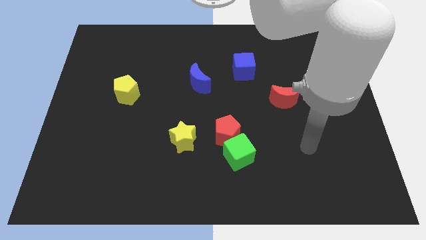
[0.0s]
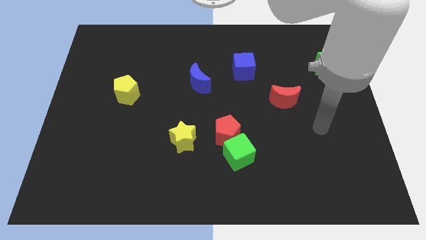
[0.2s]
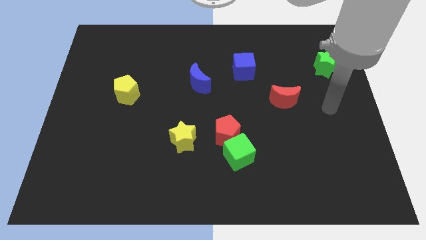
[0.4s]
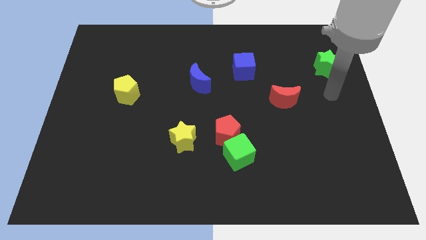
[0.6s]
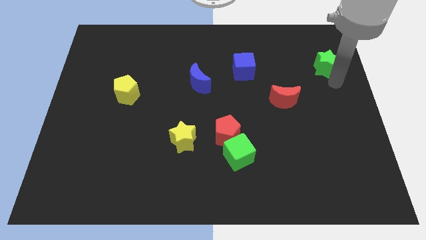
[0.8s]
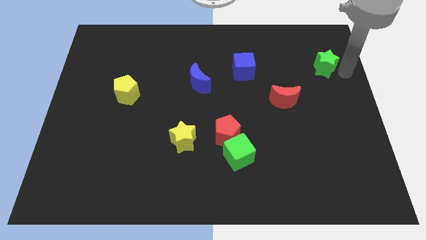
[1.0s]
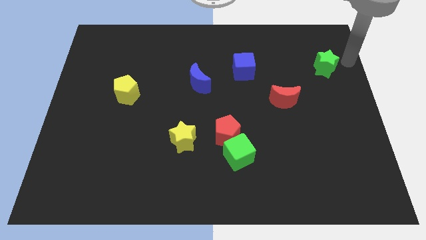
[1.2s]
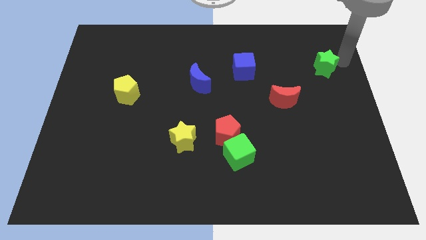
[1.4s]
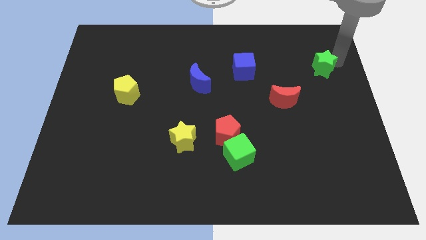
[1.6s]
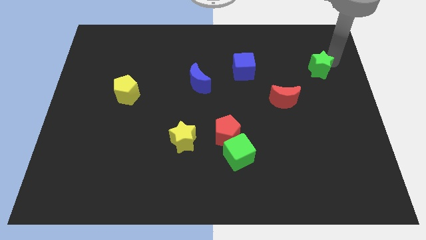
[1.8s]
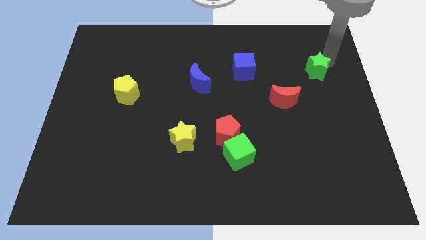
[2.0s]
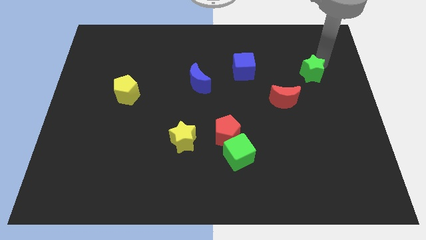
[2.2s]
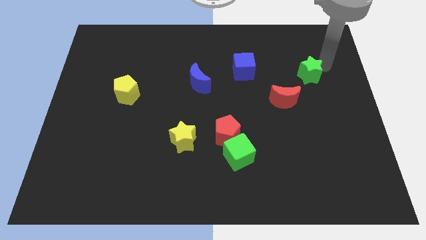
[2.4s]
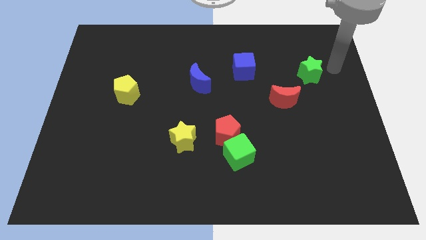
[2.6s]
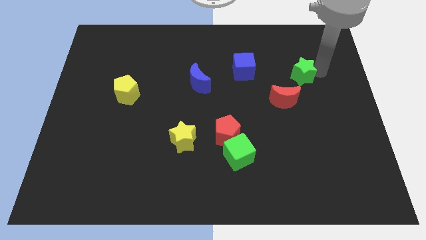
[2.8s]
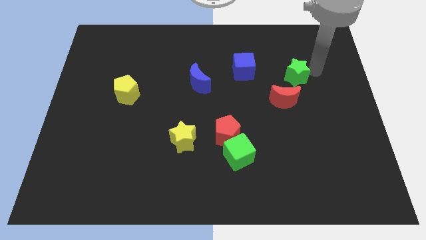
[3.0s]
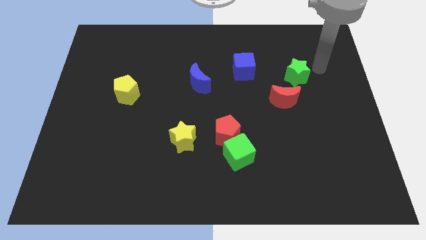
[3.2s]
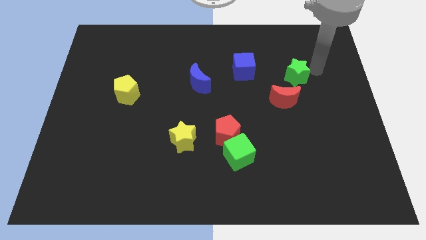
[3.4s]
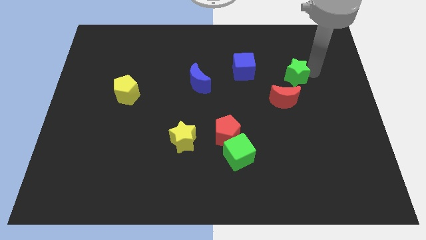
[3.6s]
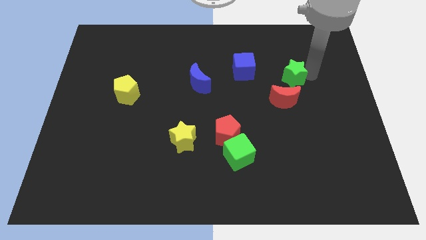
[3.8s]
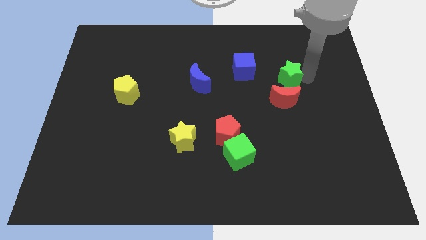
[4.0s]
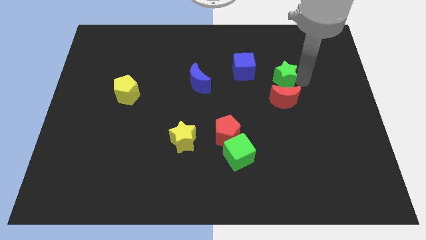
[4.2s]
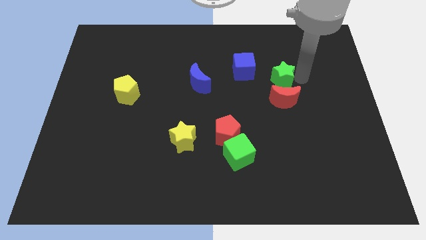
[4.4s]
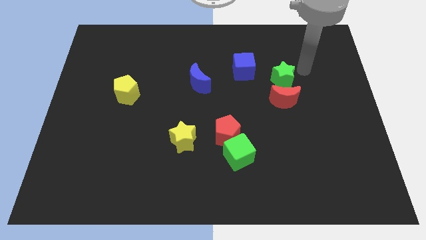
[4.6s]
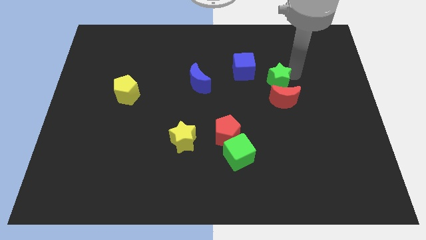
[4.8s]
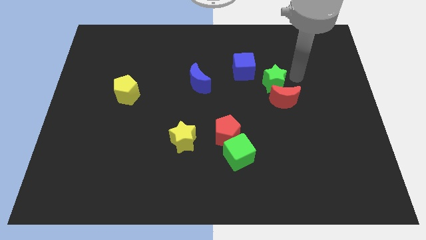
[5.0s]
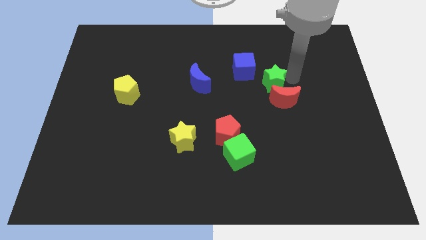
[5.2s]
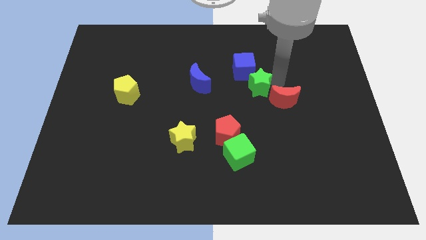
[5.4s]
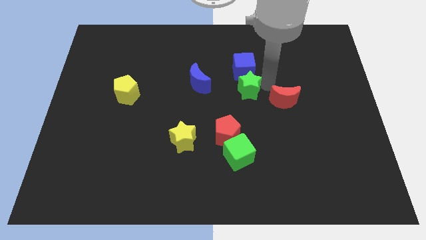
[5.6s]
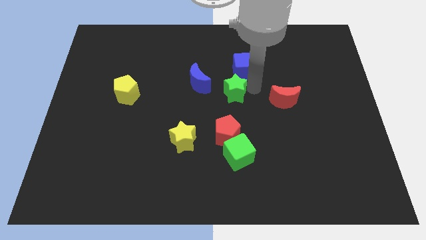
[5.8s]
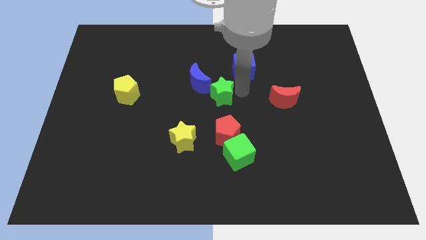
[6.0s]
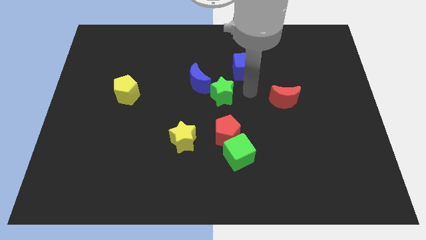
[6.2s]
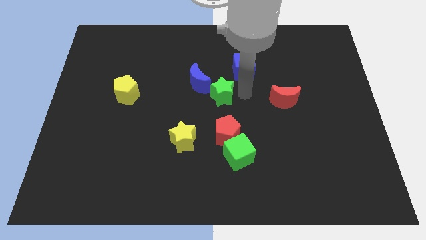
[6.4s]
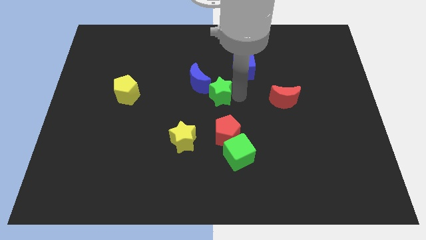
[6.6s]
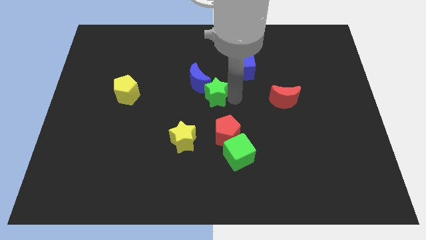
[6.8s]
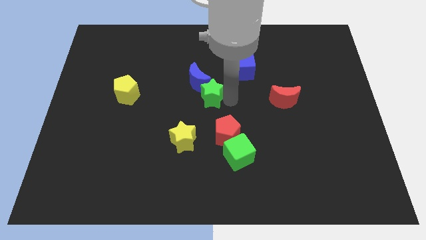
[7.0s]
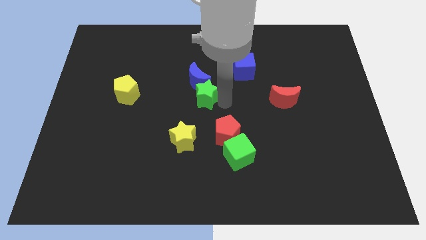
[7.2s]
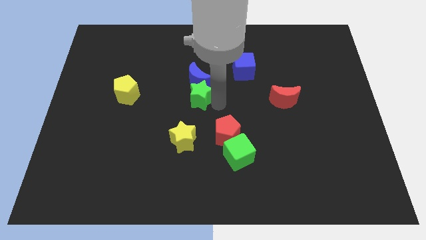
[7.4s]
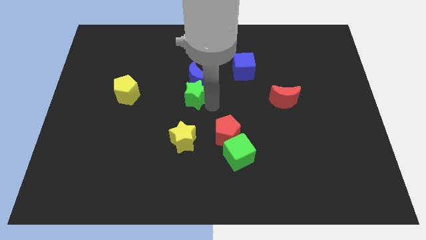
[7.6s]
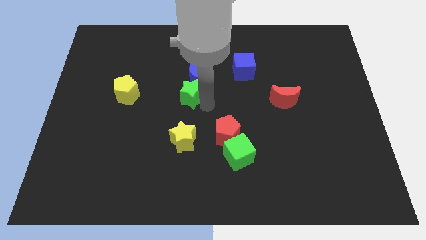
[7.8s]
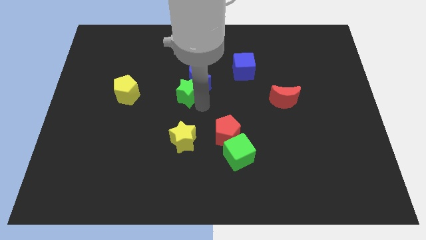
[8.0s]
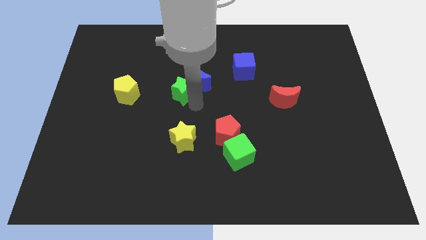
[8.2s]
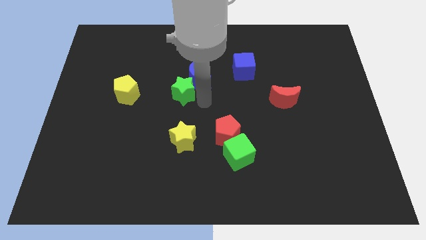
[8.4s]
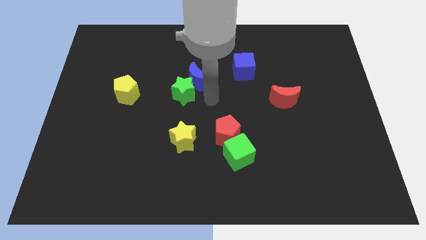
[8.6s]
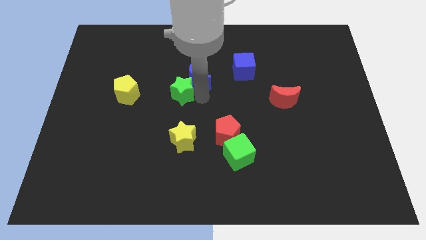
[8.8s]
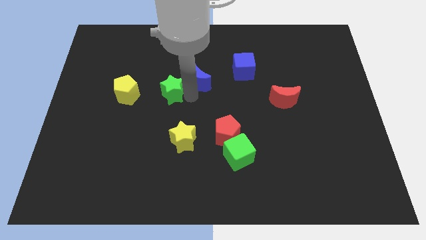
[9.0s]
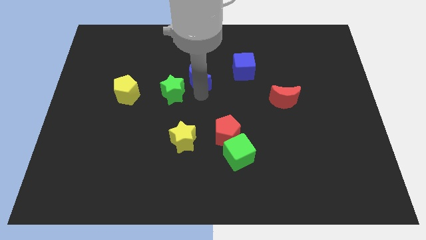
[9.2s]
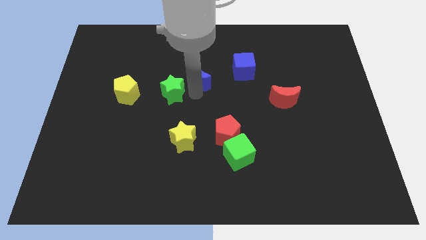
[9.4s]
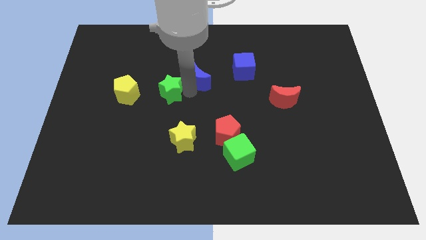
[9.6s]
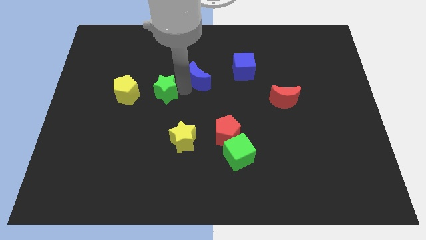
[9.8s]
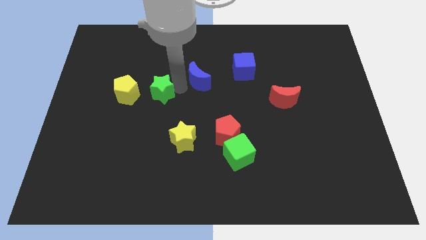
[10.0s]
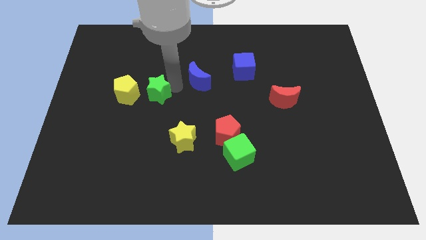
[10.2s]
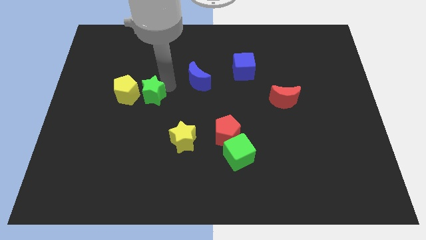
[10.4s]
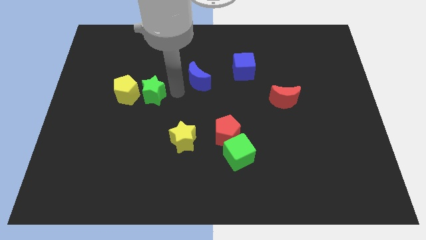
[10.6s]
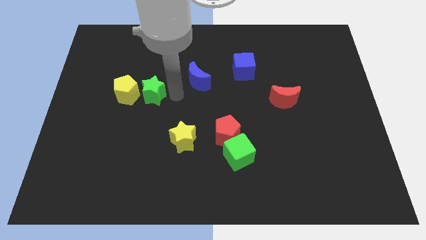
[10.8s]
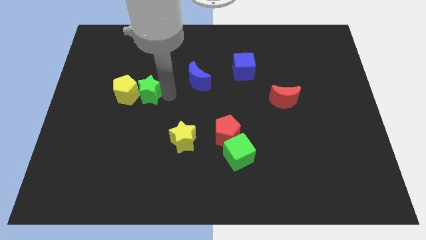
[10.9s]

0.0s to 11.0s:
slide the green star next to the yellow pentagon

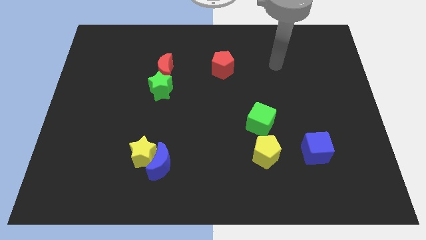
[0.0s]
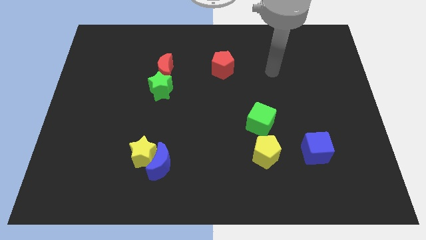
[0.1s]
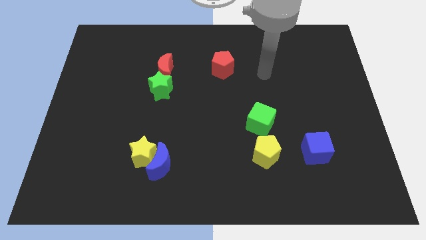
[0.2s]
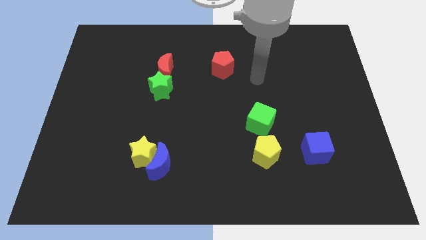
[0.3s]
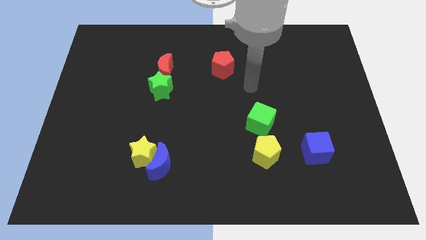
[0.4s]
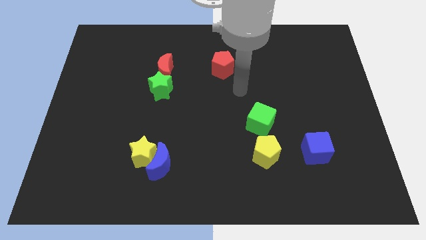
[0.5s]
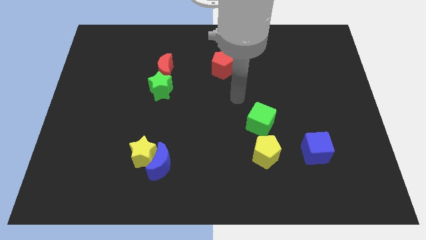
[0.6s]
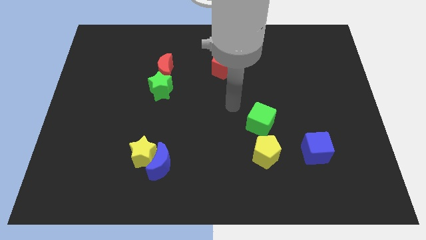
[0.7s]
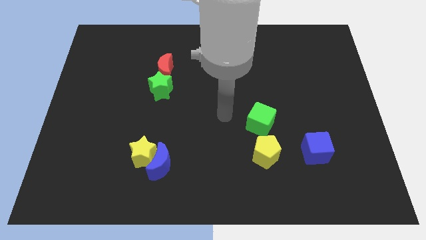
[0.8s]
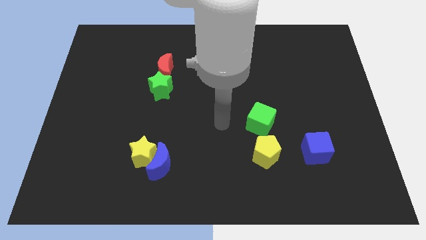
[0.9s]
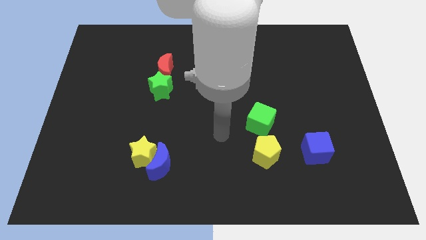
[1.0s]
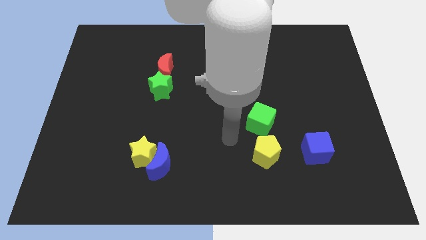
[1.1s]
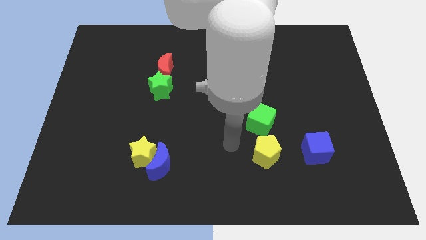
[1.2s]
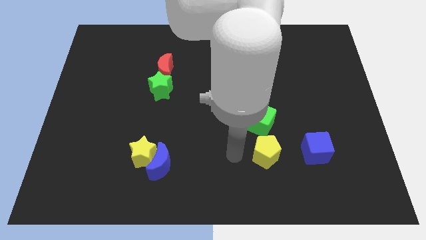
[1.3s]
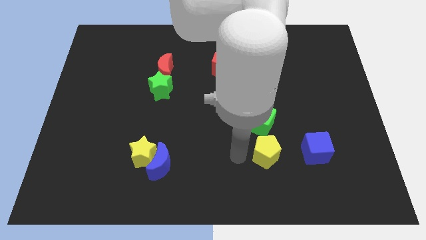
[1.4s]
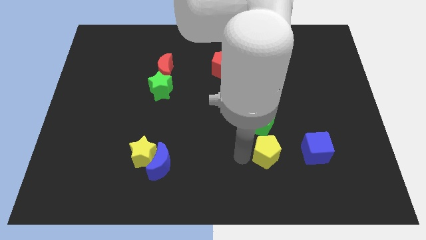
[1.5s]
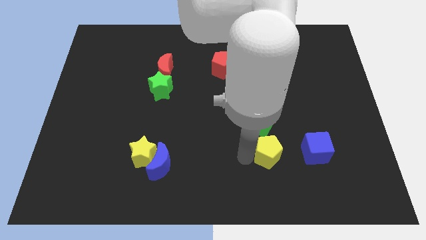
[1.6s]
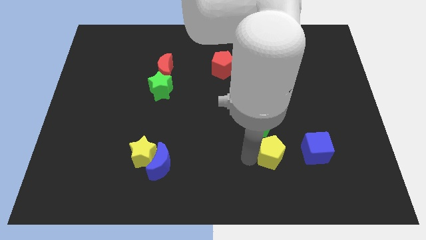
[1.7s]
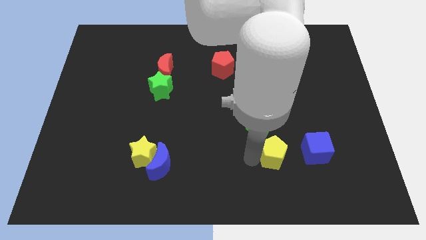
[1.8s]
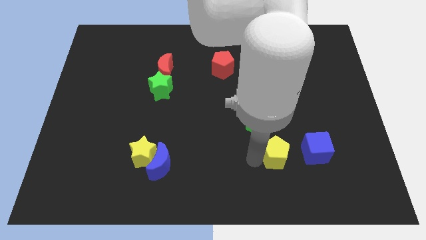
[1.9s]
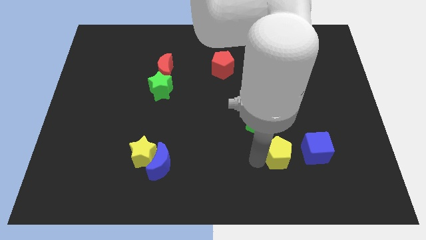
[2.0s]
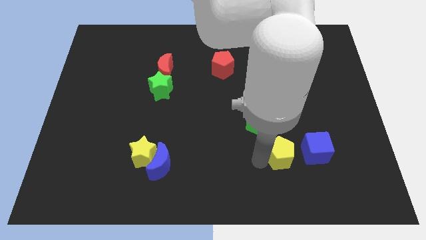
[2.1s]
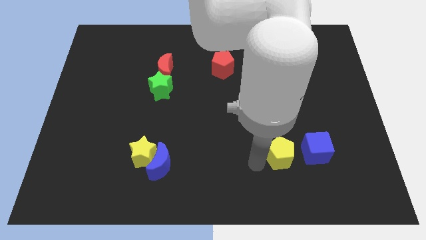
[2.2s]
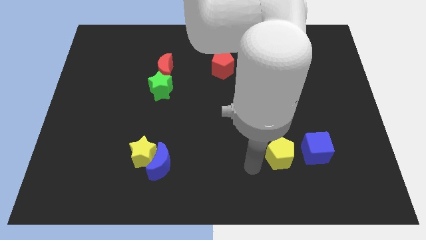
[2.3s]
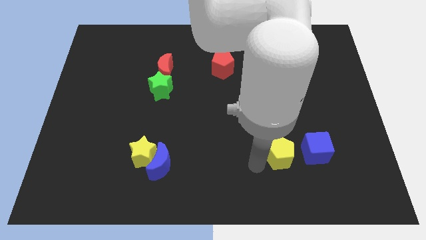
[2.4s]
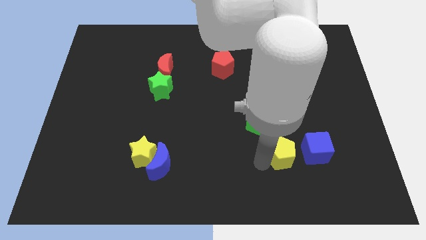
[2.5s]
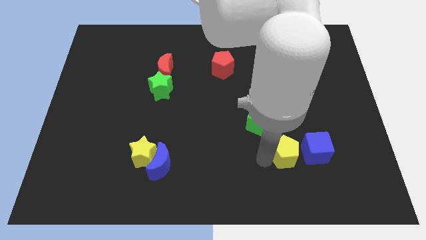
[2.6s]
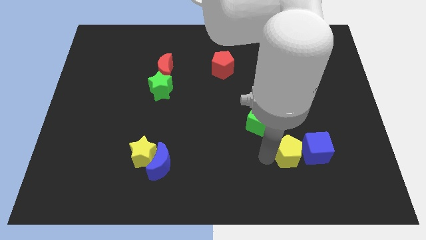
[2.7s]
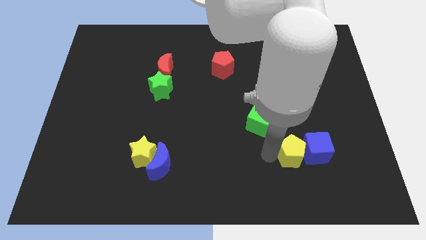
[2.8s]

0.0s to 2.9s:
put the yellow pentagon towards the blue cube
